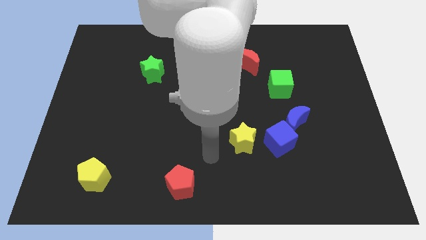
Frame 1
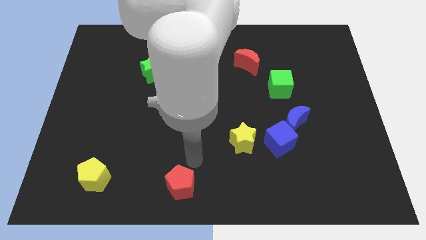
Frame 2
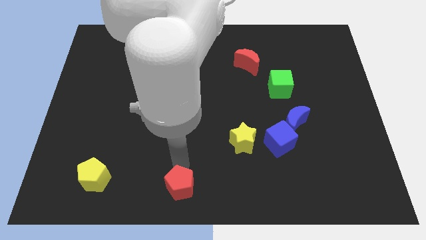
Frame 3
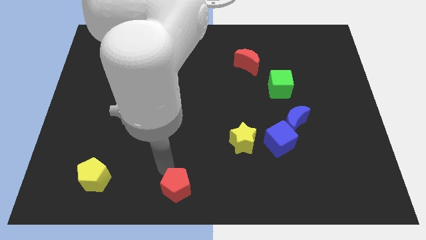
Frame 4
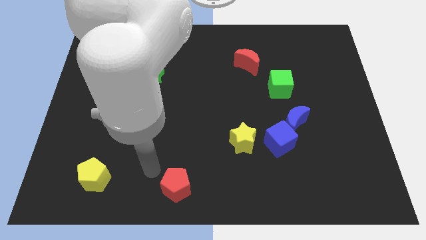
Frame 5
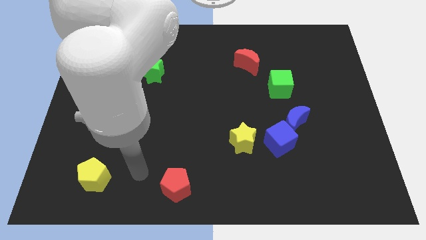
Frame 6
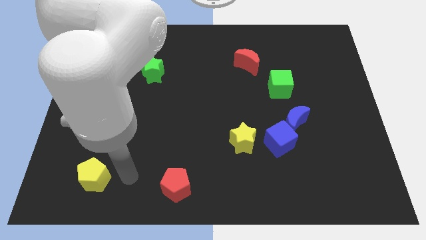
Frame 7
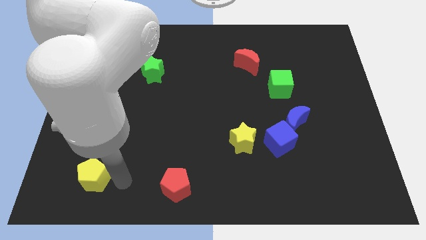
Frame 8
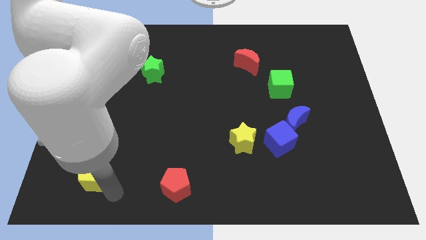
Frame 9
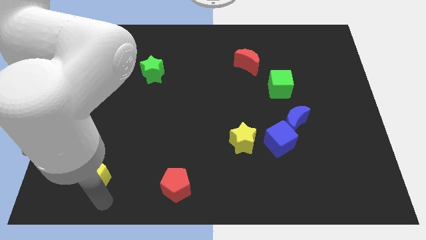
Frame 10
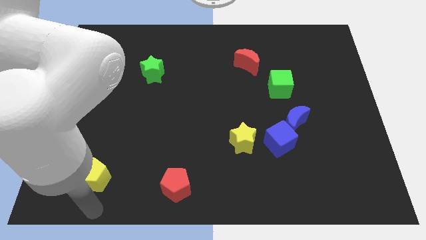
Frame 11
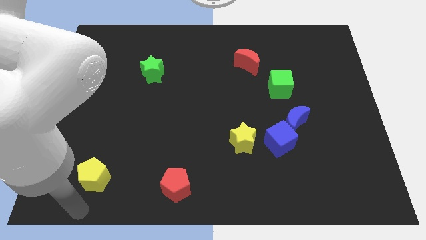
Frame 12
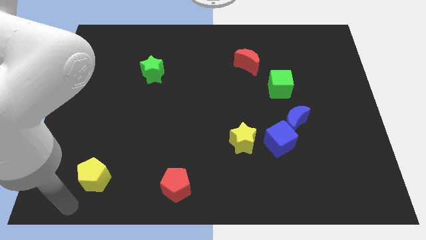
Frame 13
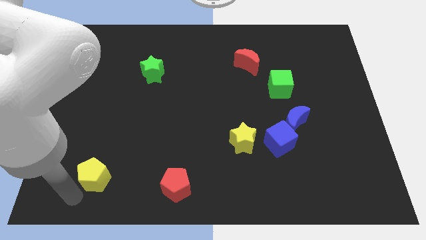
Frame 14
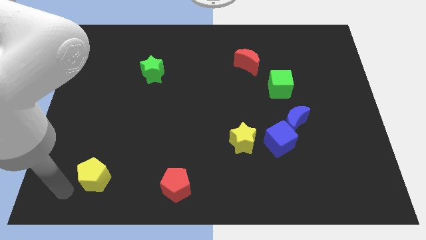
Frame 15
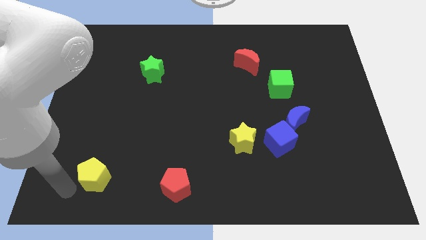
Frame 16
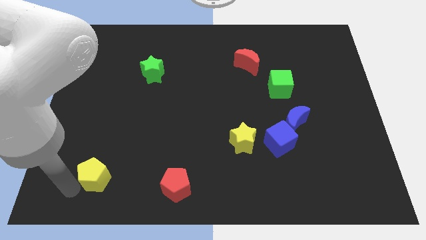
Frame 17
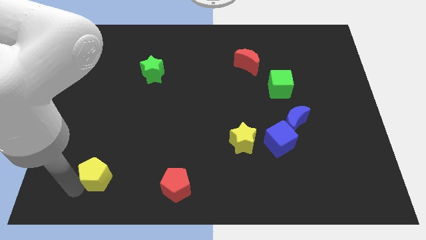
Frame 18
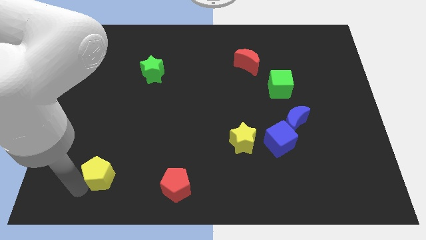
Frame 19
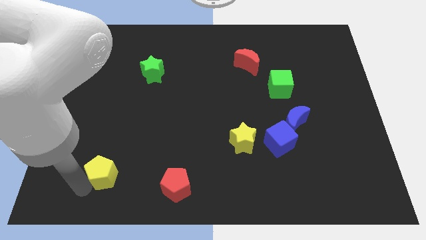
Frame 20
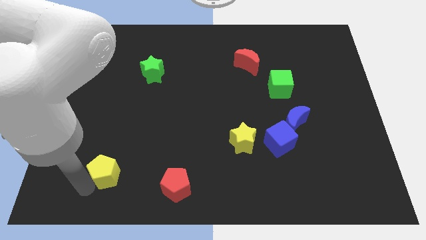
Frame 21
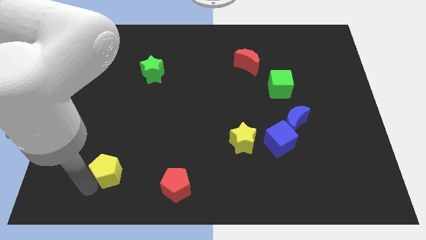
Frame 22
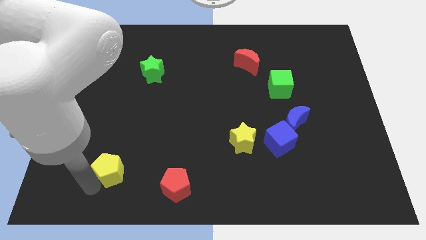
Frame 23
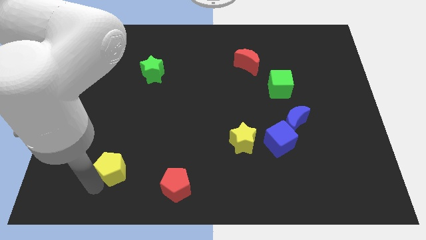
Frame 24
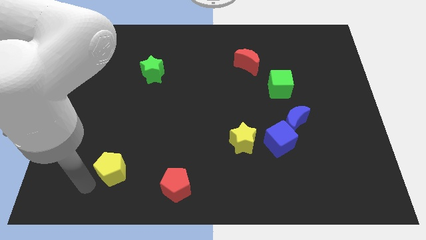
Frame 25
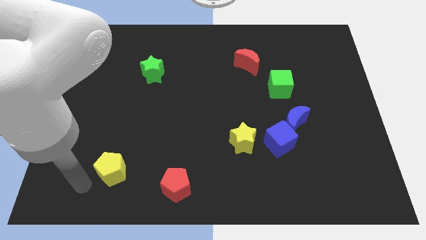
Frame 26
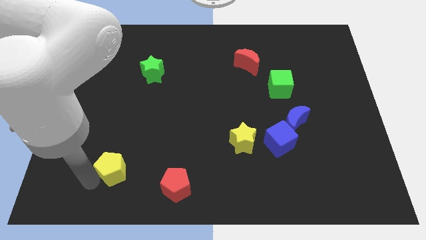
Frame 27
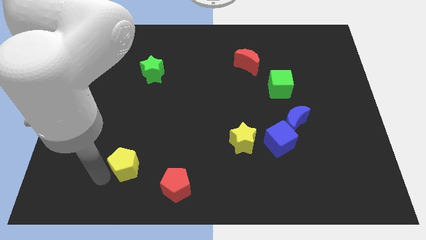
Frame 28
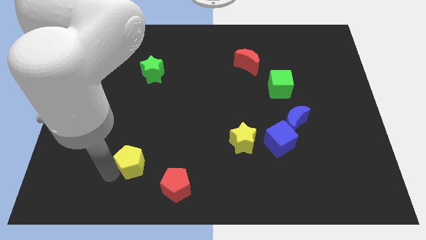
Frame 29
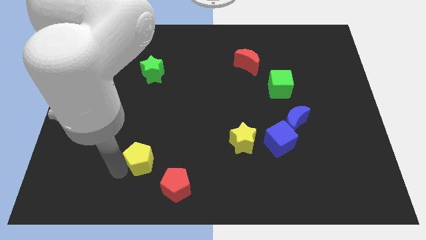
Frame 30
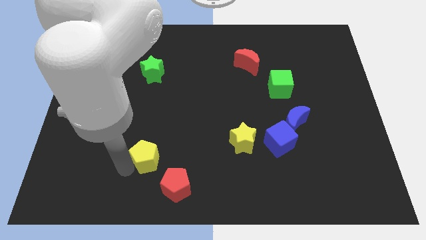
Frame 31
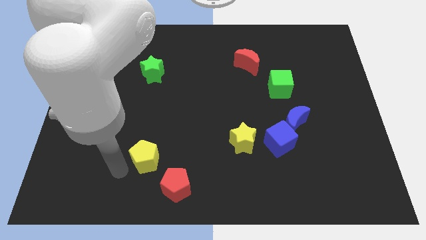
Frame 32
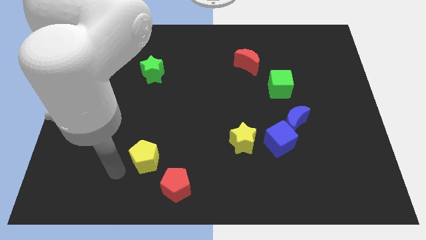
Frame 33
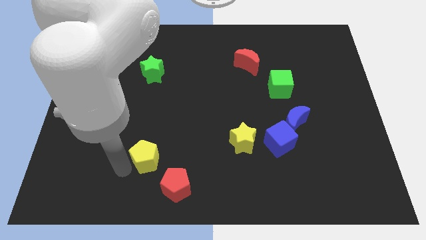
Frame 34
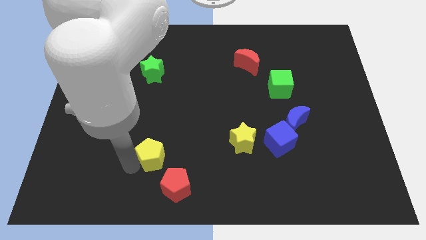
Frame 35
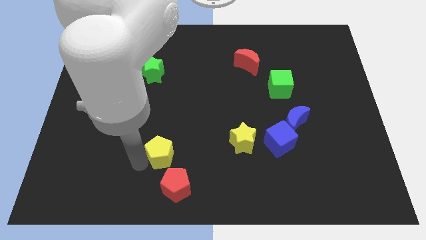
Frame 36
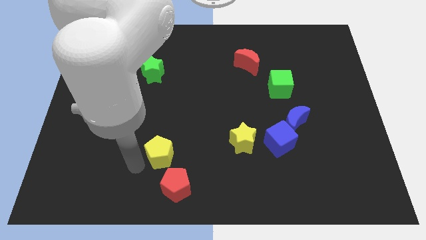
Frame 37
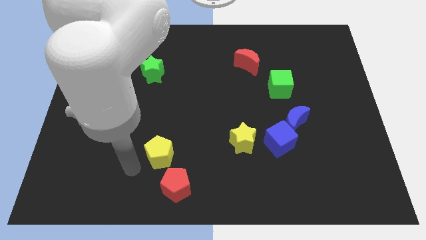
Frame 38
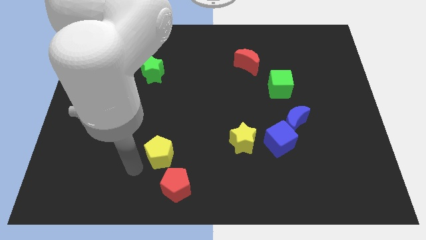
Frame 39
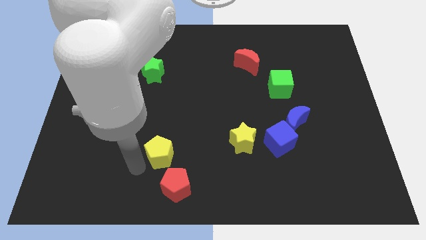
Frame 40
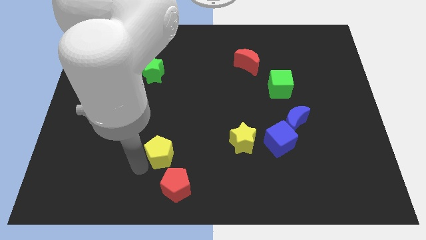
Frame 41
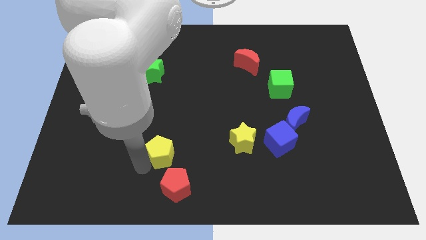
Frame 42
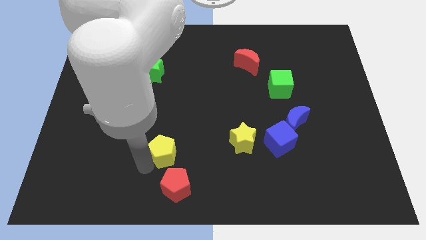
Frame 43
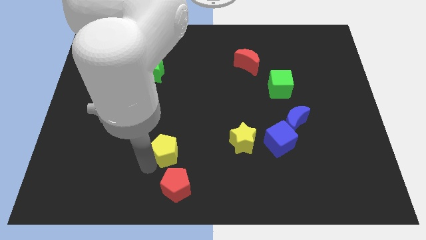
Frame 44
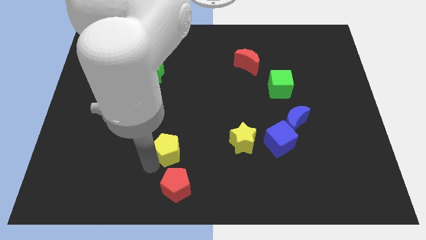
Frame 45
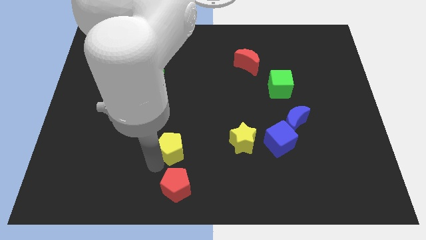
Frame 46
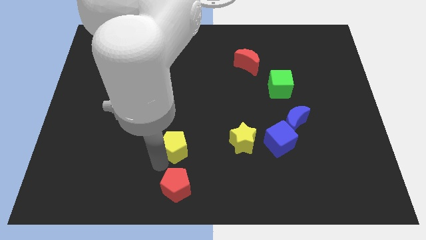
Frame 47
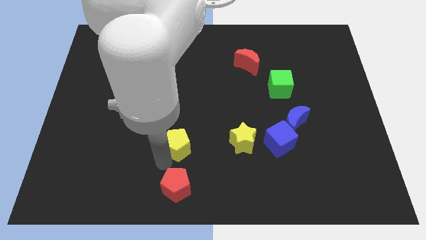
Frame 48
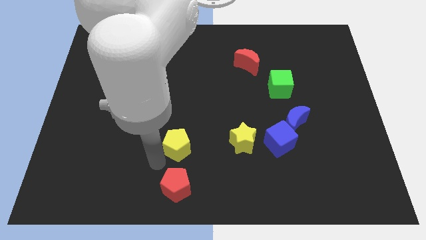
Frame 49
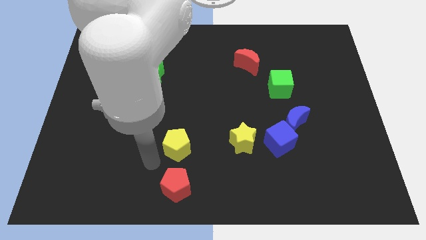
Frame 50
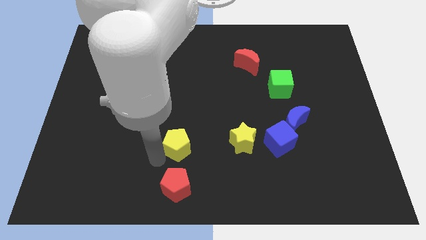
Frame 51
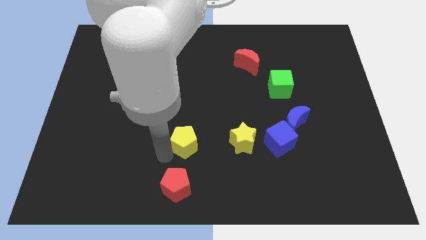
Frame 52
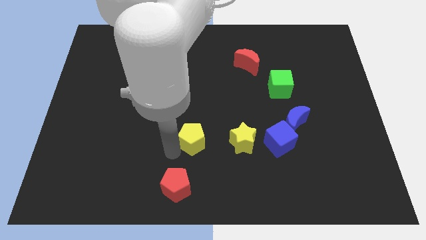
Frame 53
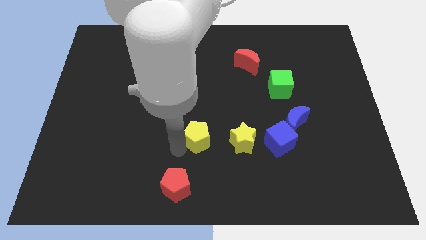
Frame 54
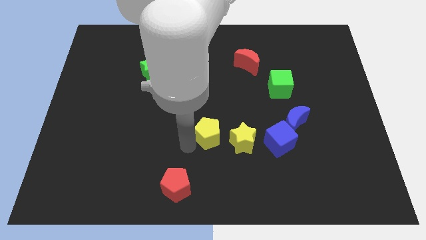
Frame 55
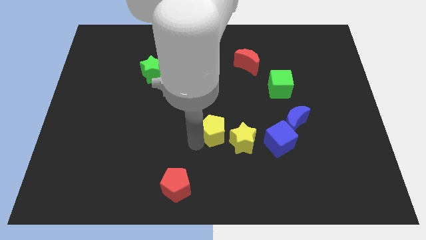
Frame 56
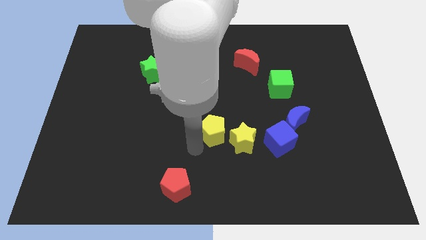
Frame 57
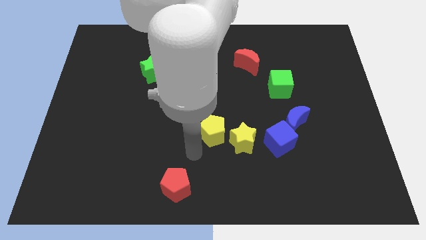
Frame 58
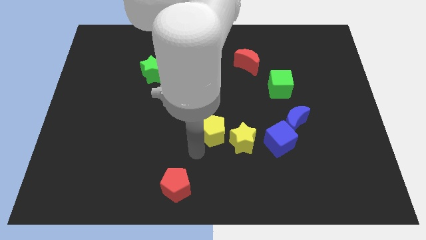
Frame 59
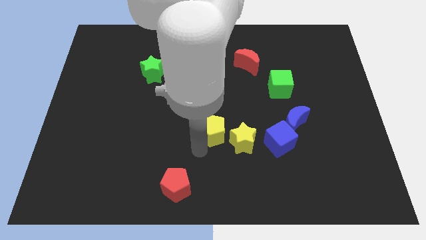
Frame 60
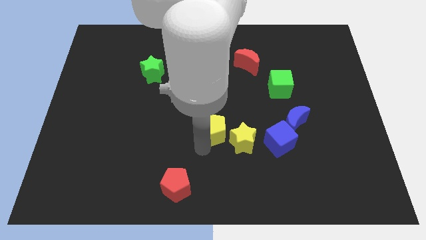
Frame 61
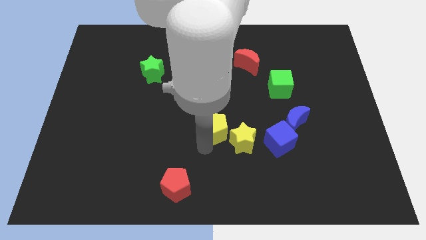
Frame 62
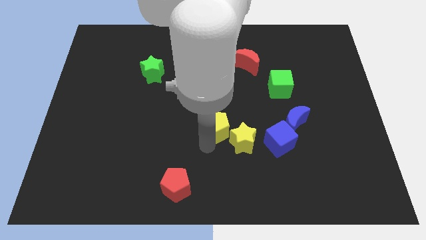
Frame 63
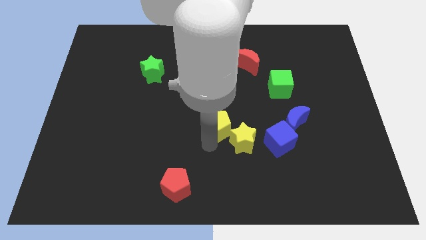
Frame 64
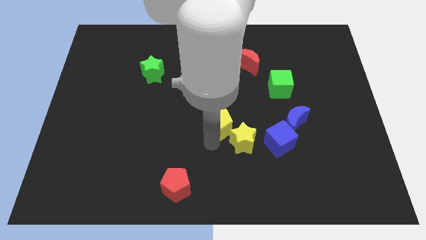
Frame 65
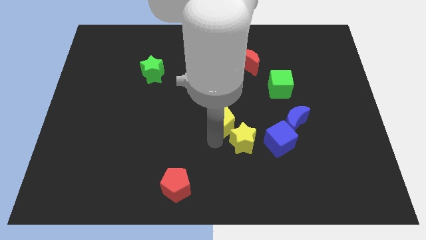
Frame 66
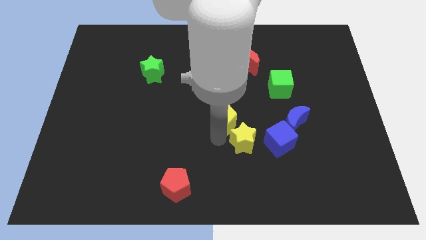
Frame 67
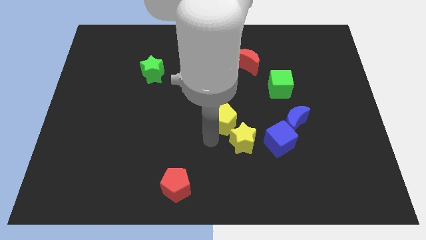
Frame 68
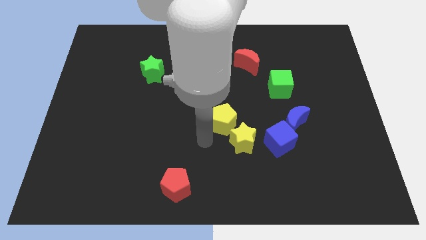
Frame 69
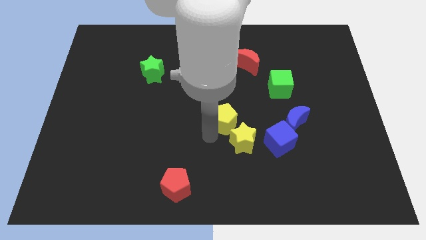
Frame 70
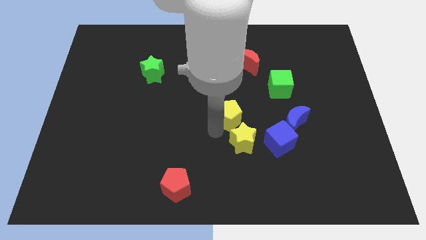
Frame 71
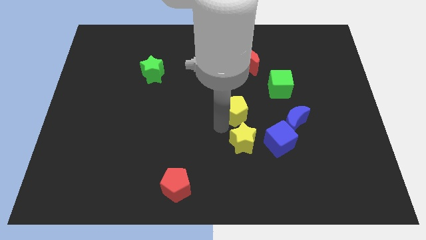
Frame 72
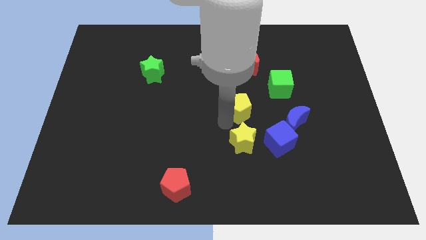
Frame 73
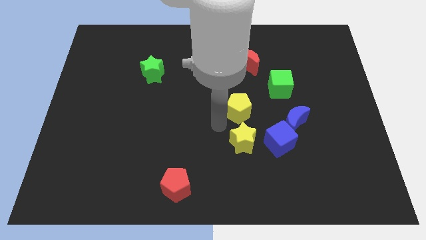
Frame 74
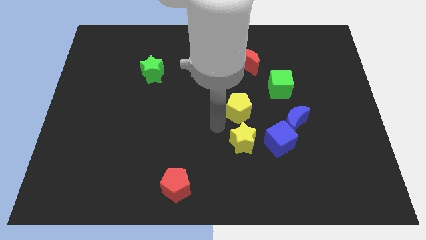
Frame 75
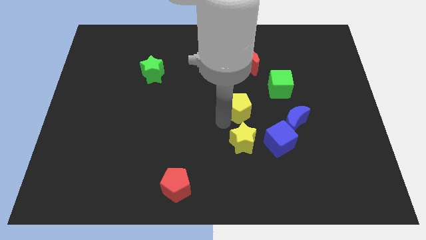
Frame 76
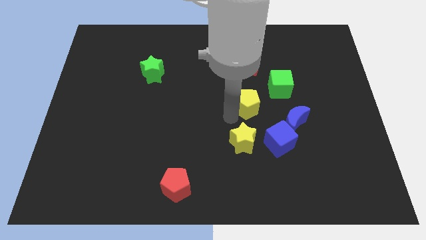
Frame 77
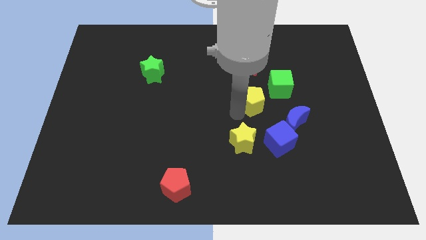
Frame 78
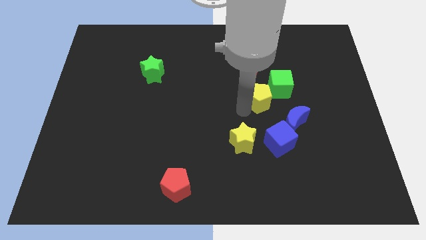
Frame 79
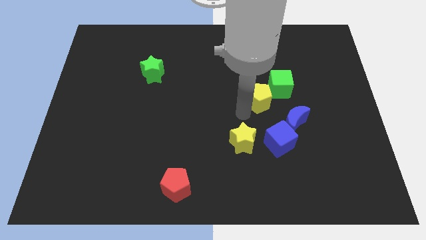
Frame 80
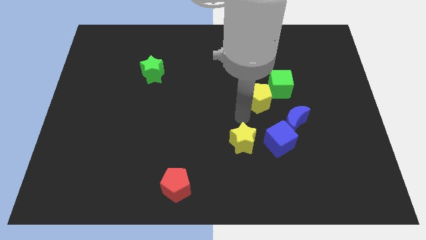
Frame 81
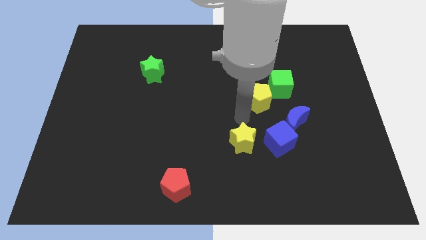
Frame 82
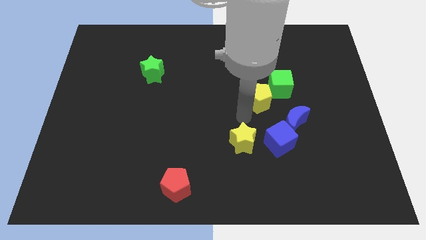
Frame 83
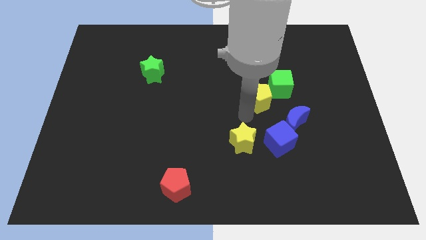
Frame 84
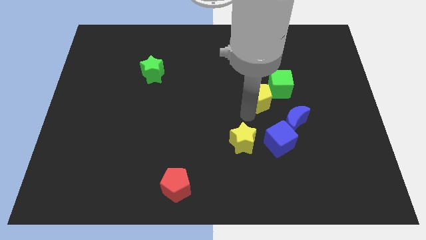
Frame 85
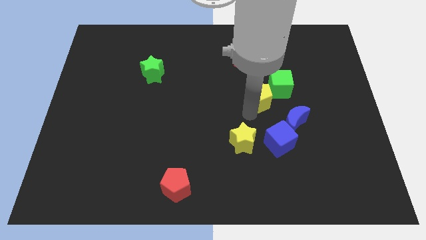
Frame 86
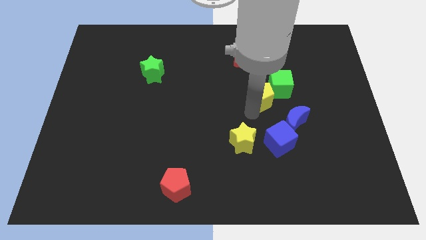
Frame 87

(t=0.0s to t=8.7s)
push the yellow pentagon close to the green cube
